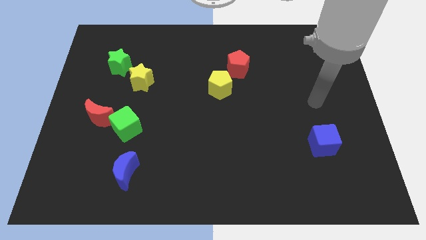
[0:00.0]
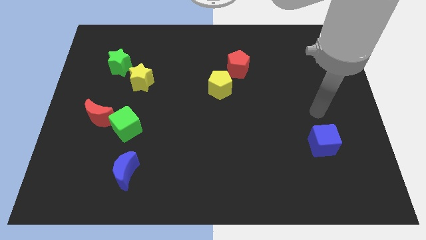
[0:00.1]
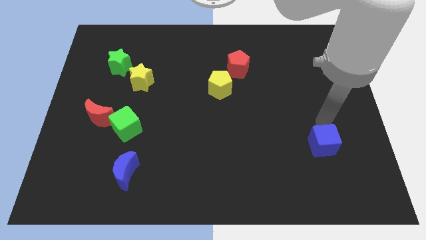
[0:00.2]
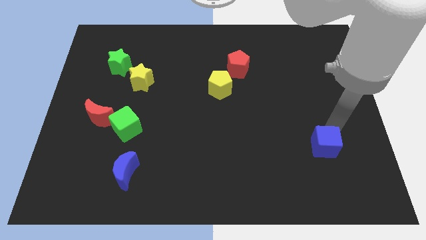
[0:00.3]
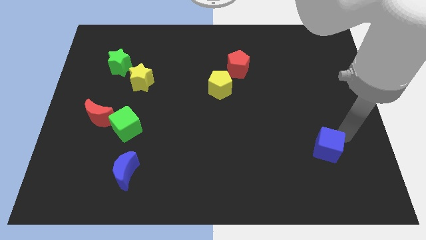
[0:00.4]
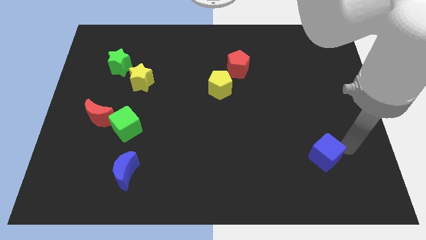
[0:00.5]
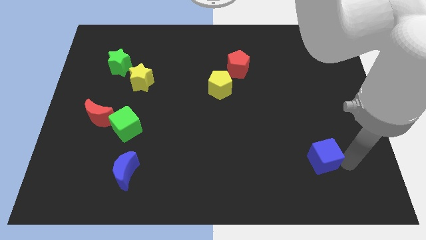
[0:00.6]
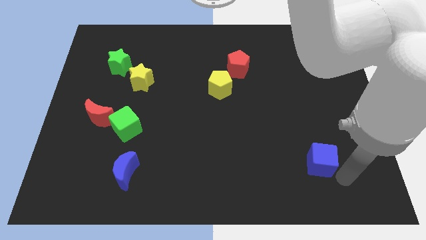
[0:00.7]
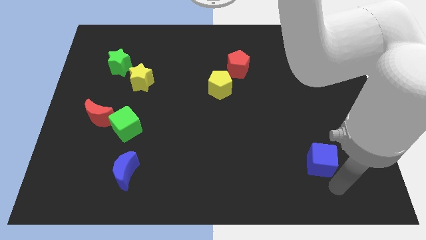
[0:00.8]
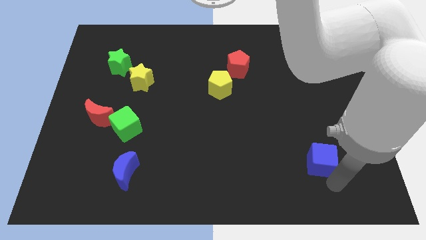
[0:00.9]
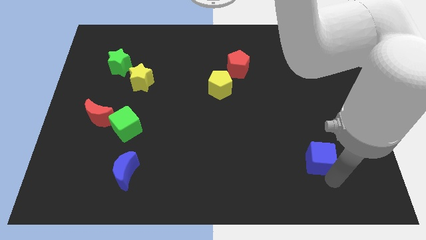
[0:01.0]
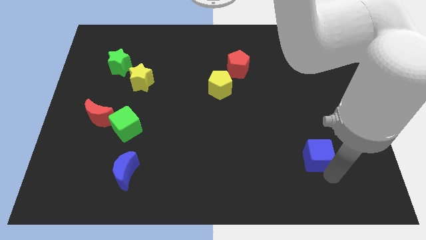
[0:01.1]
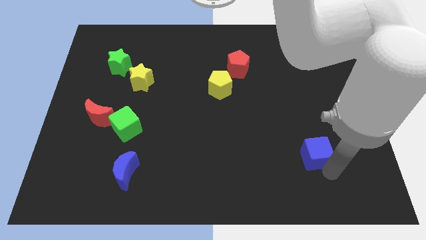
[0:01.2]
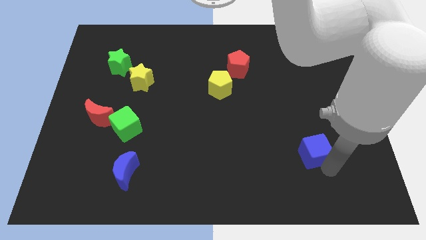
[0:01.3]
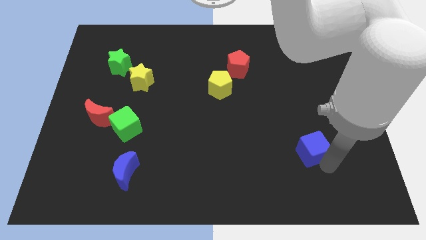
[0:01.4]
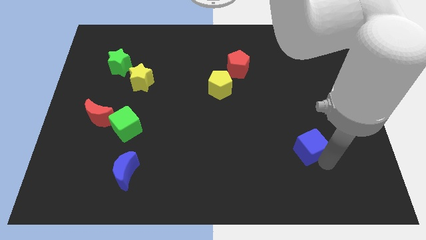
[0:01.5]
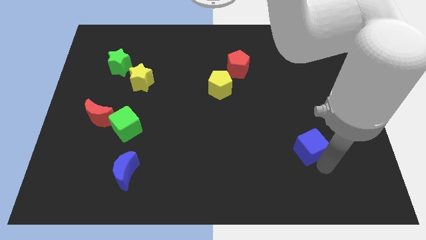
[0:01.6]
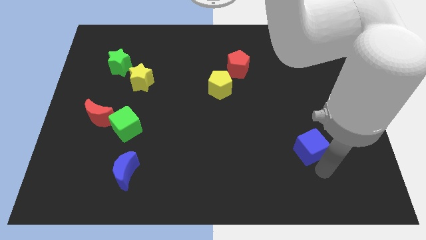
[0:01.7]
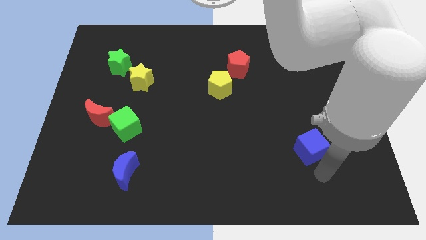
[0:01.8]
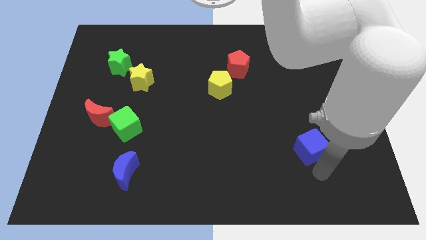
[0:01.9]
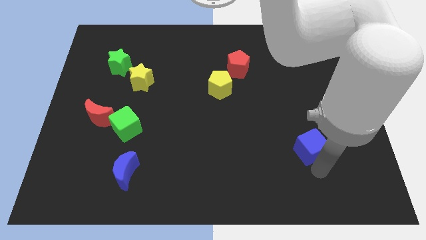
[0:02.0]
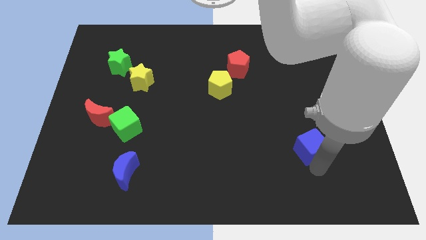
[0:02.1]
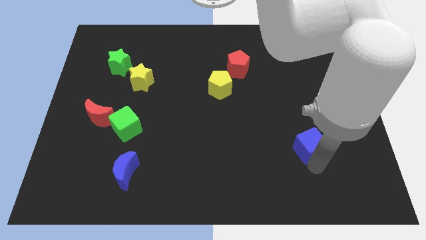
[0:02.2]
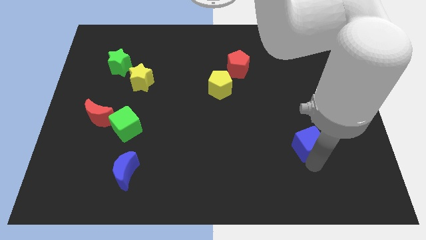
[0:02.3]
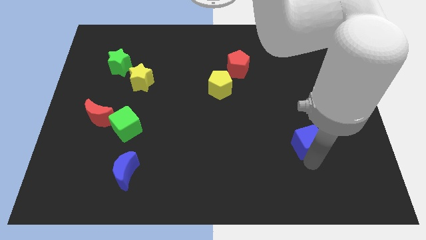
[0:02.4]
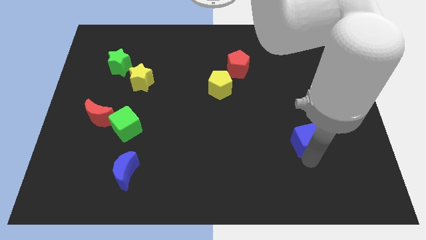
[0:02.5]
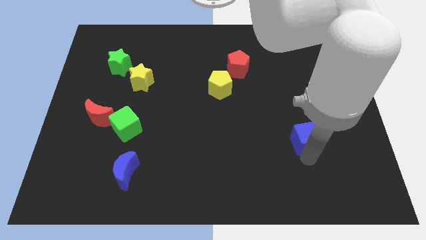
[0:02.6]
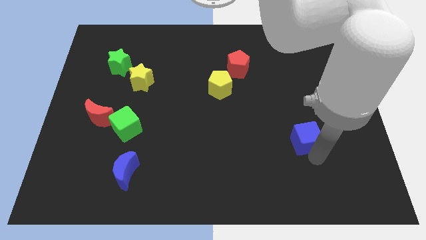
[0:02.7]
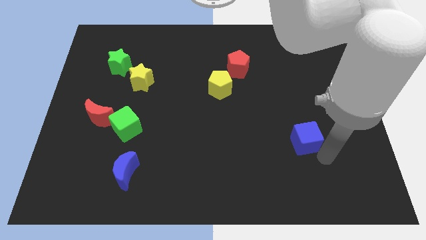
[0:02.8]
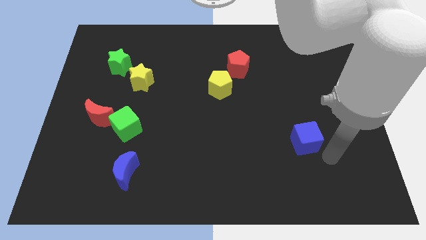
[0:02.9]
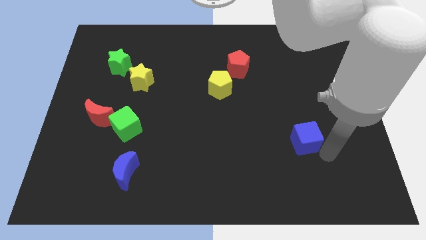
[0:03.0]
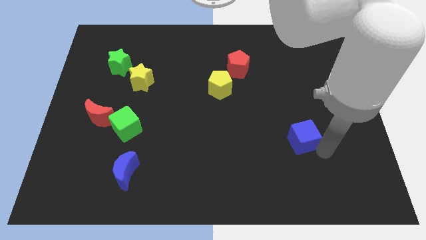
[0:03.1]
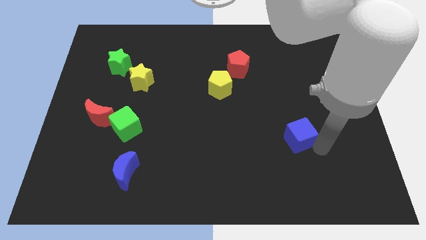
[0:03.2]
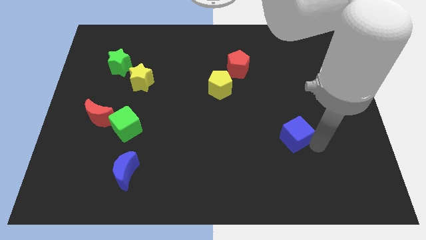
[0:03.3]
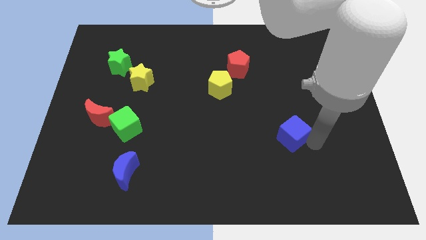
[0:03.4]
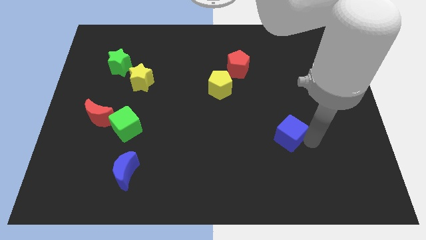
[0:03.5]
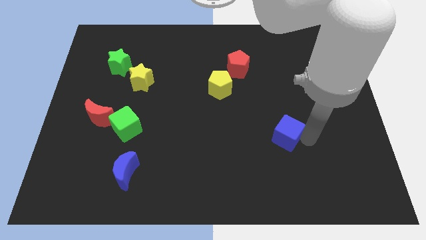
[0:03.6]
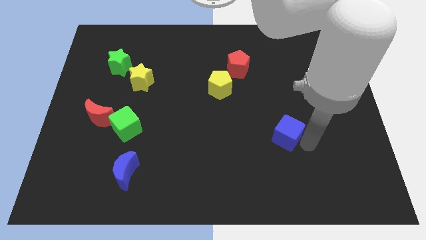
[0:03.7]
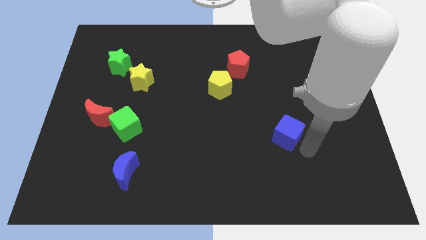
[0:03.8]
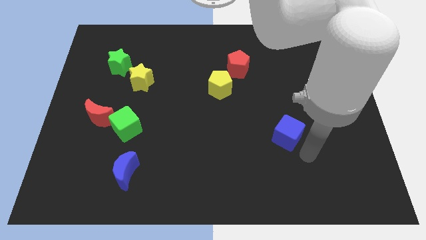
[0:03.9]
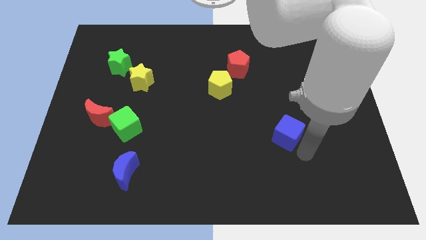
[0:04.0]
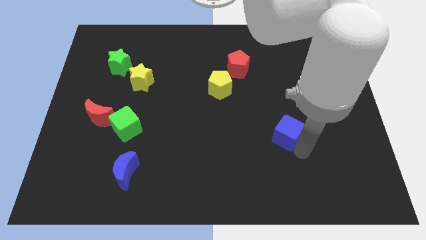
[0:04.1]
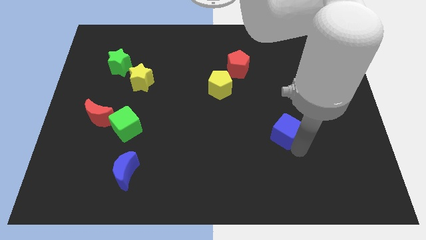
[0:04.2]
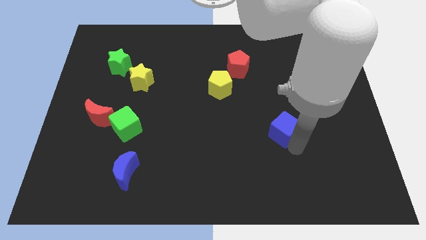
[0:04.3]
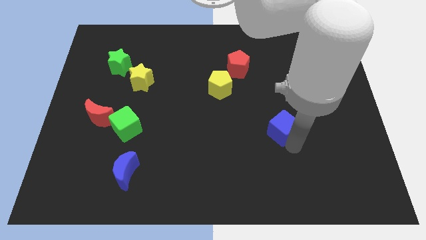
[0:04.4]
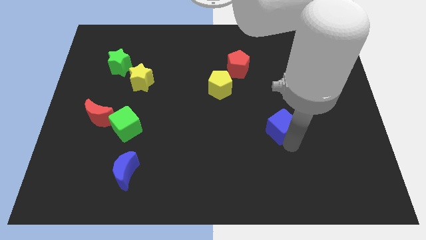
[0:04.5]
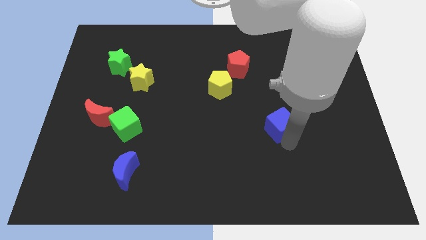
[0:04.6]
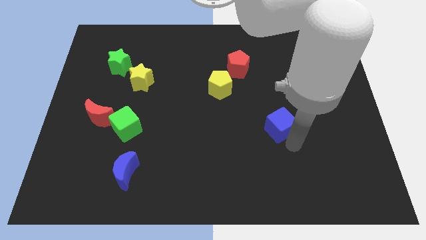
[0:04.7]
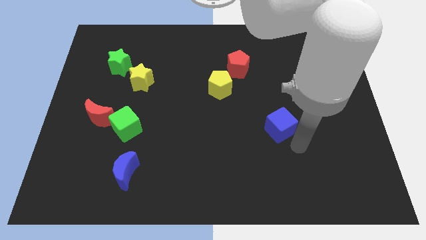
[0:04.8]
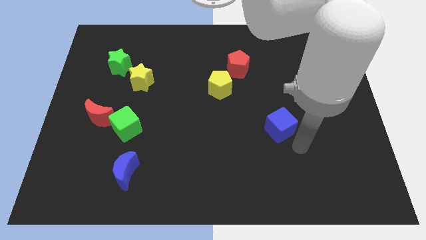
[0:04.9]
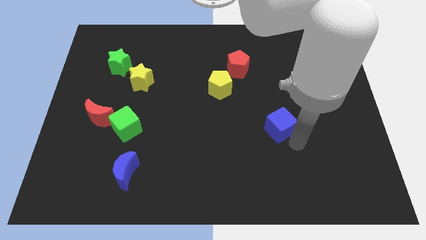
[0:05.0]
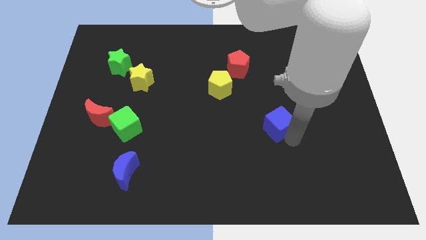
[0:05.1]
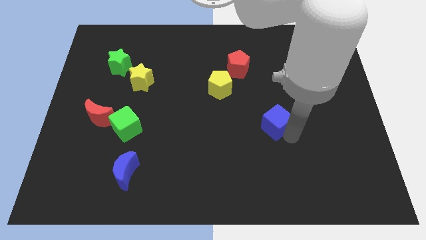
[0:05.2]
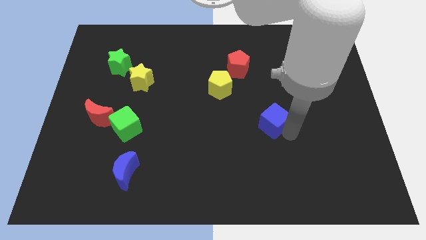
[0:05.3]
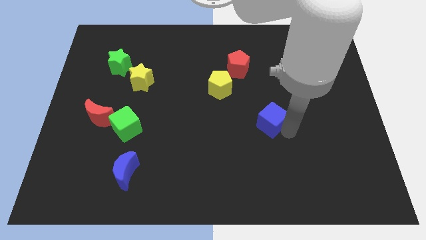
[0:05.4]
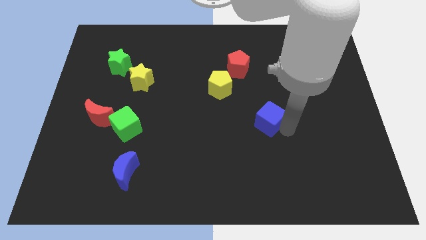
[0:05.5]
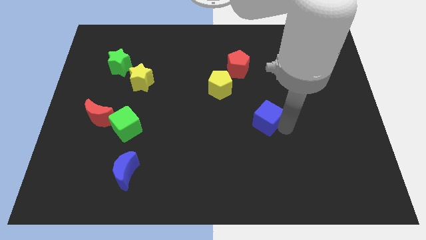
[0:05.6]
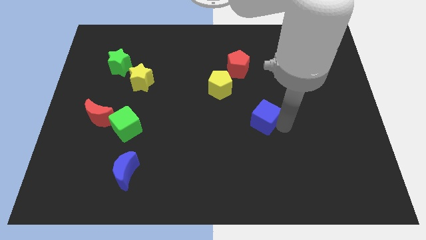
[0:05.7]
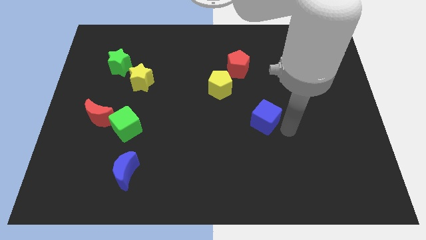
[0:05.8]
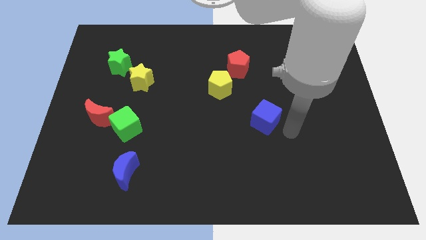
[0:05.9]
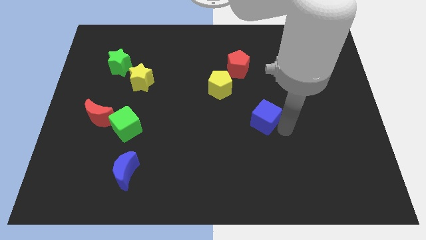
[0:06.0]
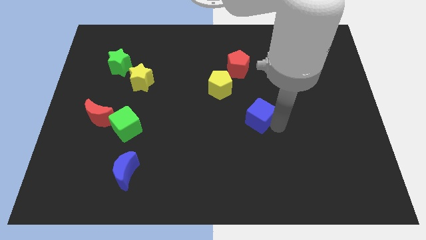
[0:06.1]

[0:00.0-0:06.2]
push the blue cube to the middle of the board

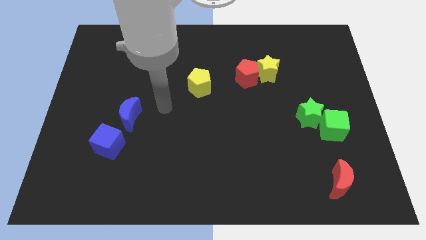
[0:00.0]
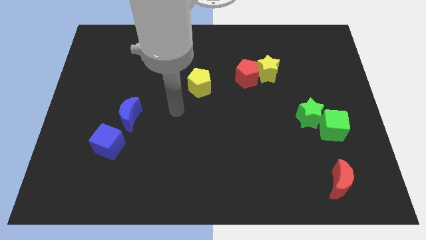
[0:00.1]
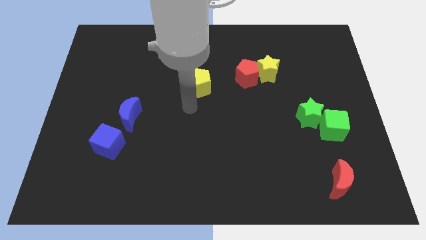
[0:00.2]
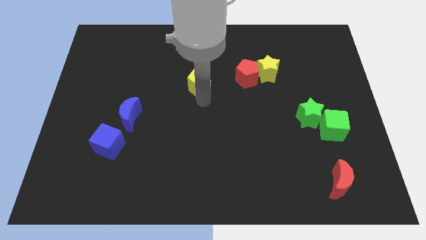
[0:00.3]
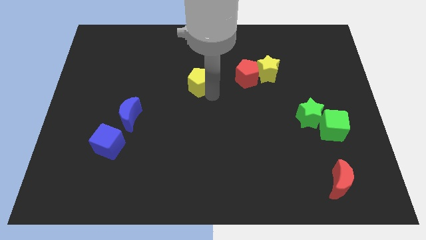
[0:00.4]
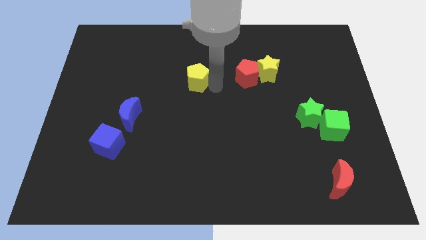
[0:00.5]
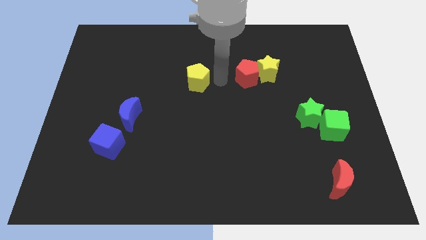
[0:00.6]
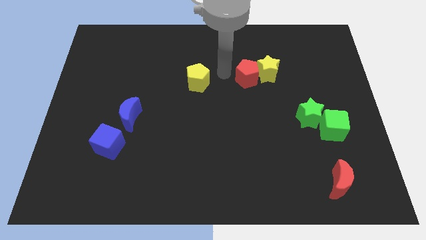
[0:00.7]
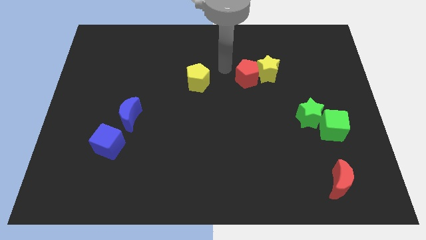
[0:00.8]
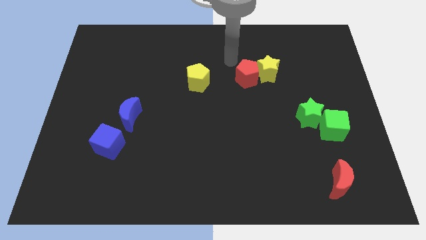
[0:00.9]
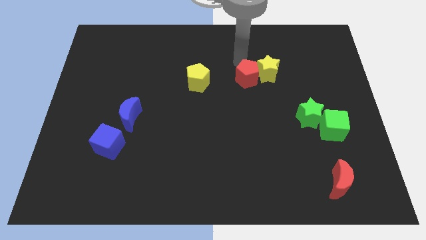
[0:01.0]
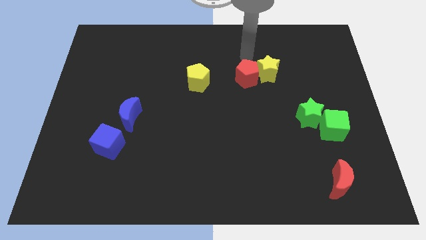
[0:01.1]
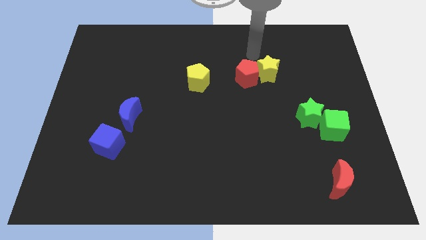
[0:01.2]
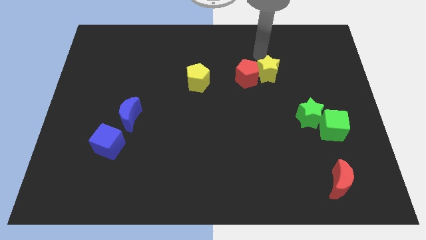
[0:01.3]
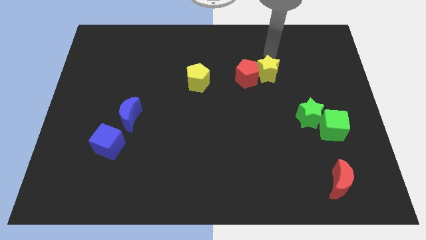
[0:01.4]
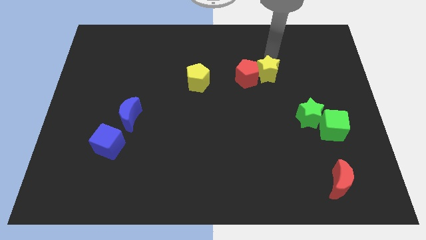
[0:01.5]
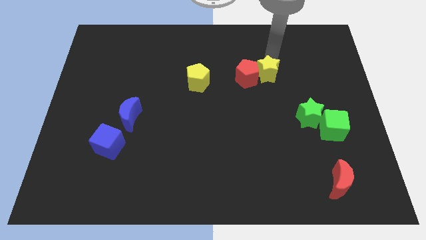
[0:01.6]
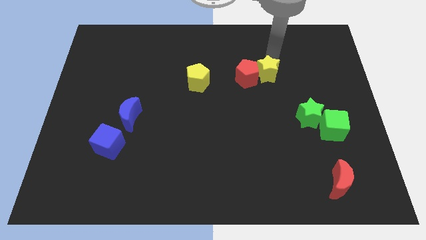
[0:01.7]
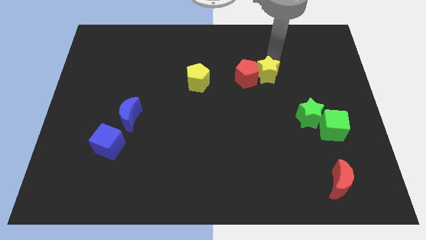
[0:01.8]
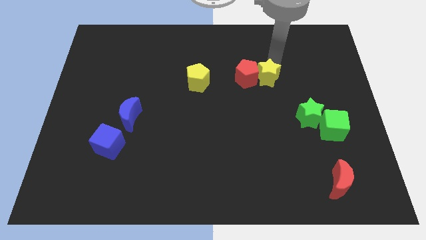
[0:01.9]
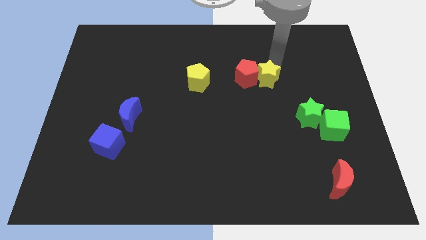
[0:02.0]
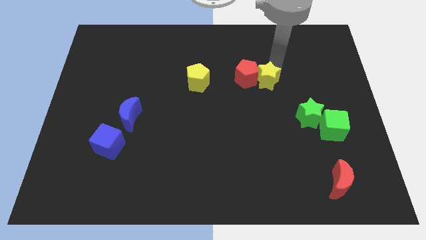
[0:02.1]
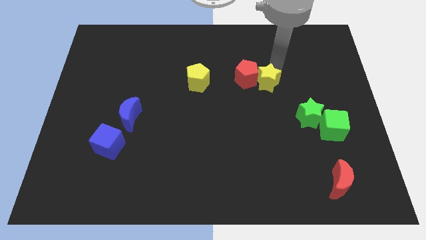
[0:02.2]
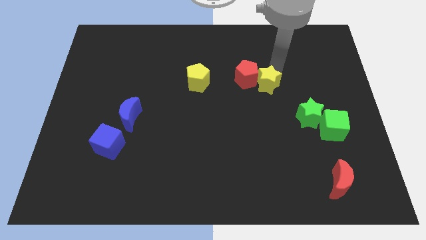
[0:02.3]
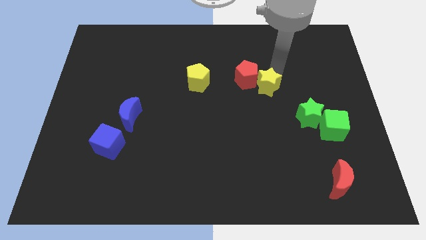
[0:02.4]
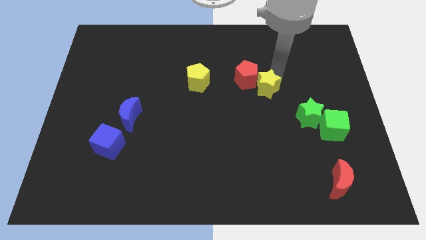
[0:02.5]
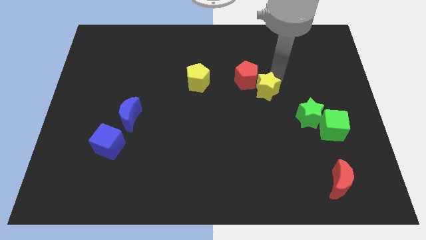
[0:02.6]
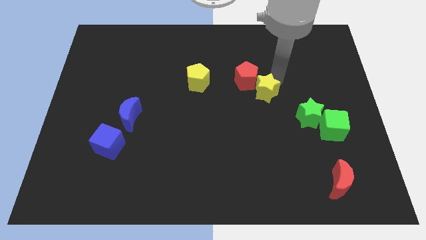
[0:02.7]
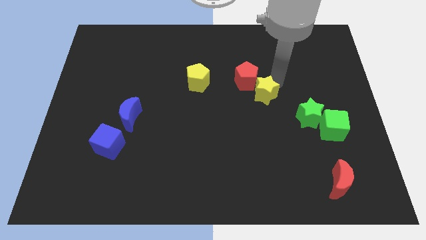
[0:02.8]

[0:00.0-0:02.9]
move the yellow star to the center
